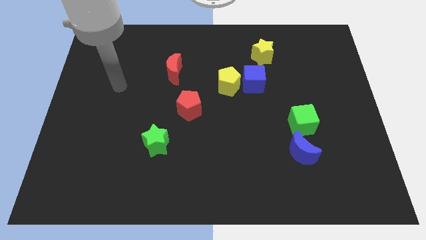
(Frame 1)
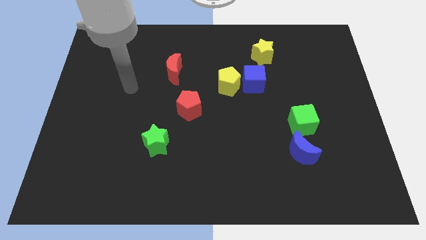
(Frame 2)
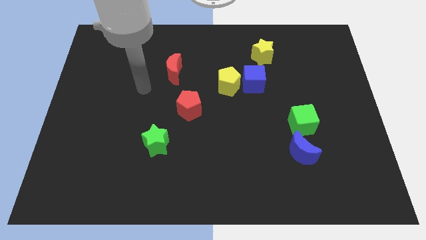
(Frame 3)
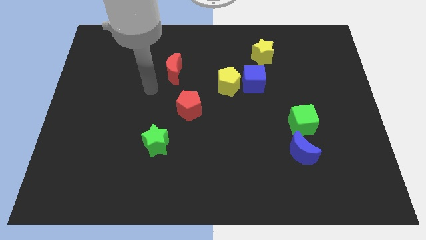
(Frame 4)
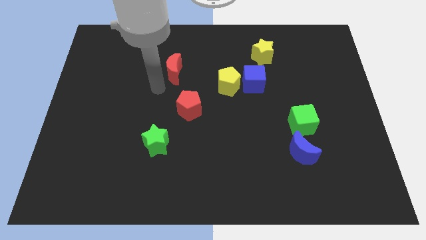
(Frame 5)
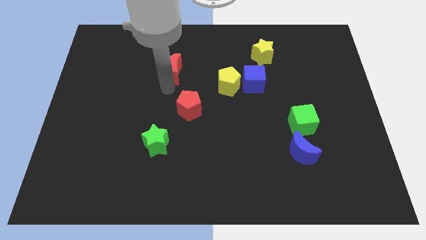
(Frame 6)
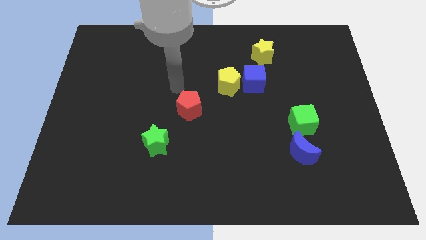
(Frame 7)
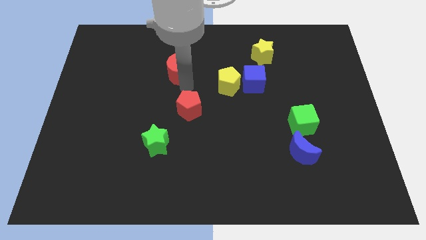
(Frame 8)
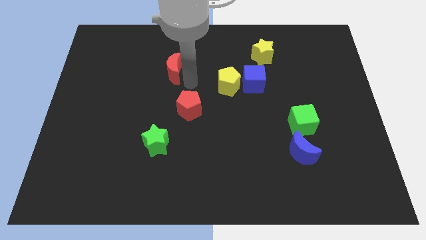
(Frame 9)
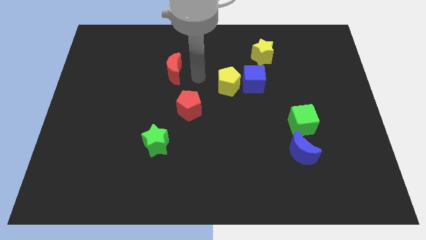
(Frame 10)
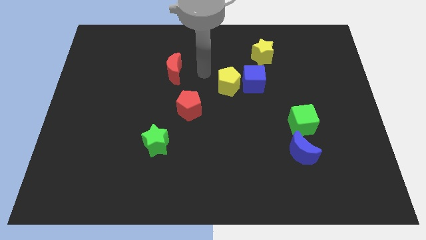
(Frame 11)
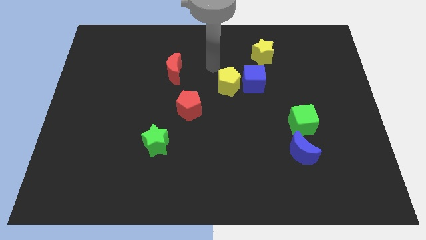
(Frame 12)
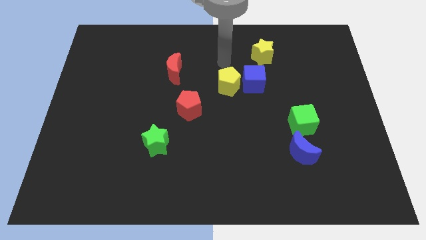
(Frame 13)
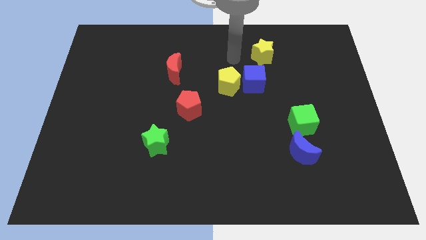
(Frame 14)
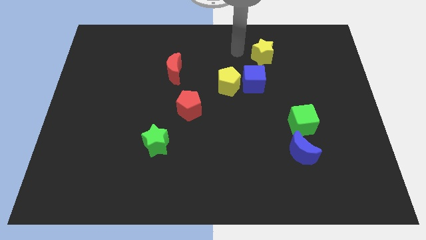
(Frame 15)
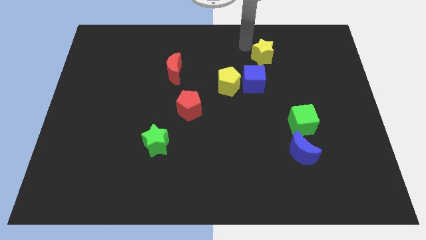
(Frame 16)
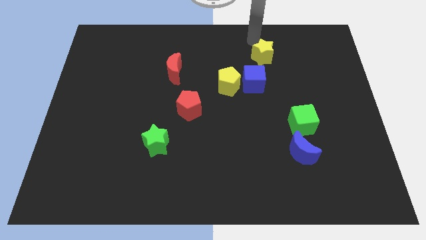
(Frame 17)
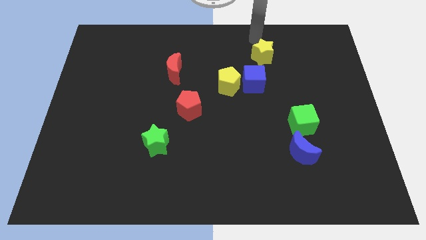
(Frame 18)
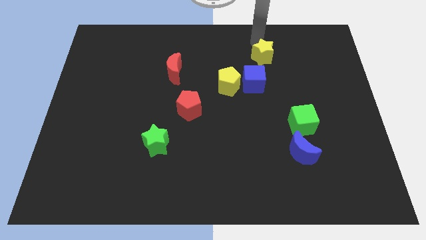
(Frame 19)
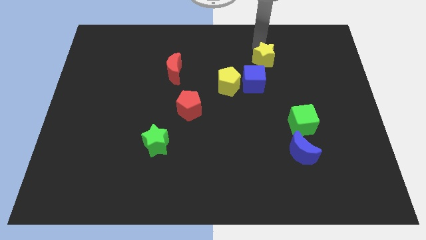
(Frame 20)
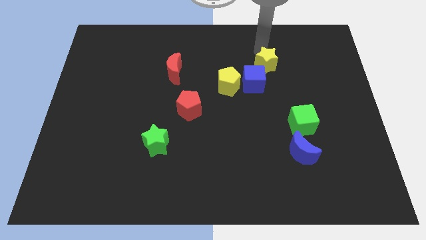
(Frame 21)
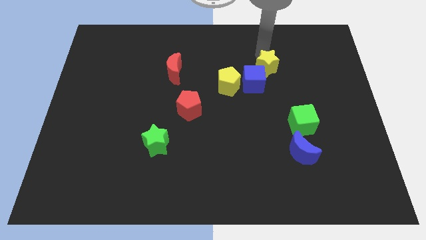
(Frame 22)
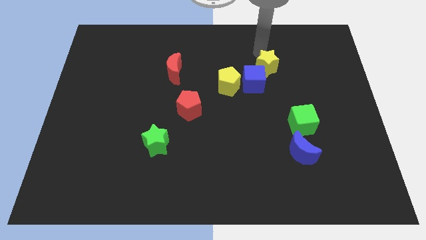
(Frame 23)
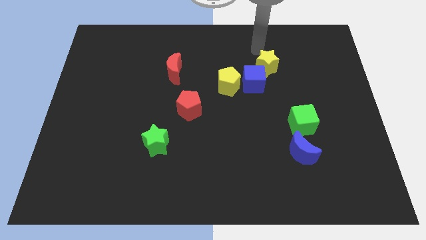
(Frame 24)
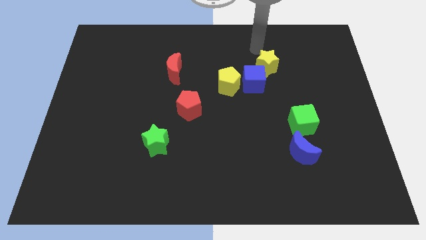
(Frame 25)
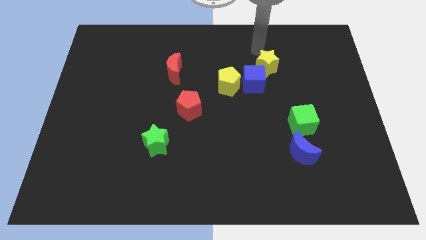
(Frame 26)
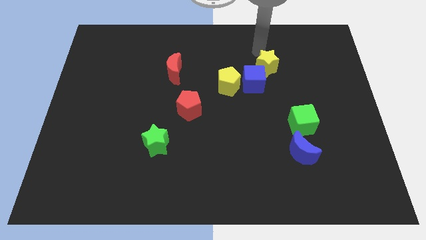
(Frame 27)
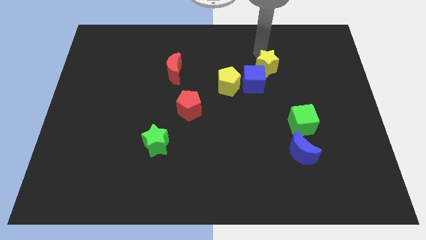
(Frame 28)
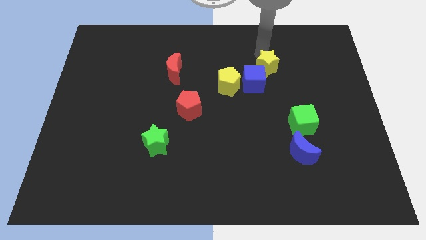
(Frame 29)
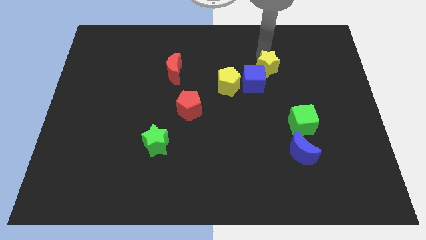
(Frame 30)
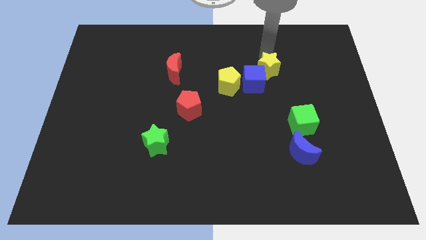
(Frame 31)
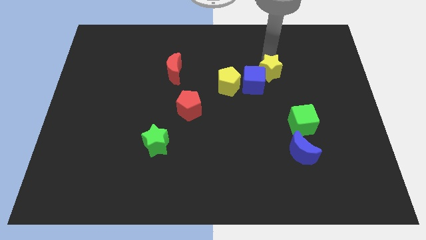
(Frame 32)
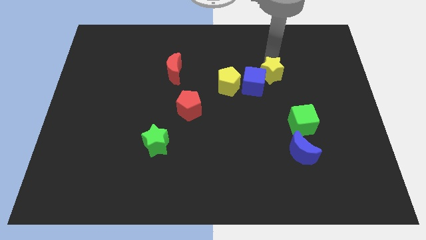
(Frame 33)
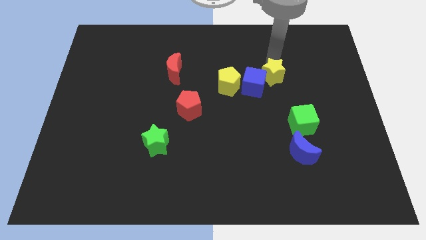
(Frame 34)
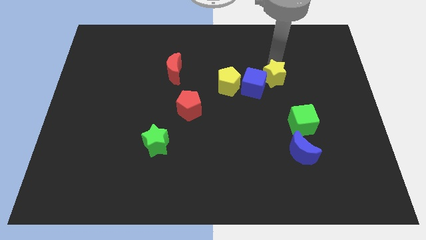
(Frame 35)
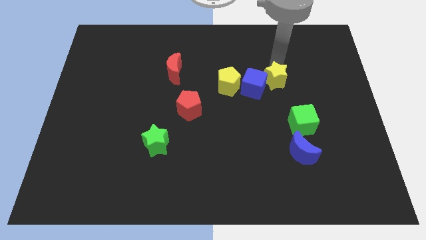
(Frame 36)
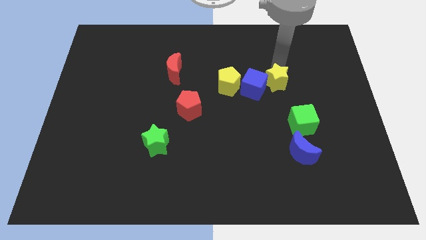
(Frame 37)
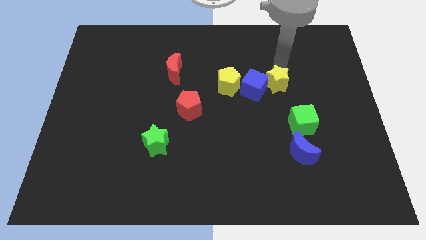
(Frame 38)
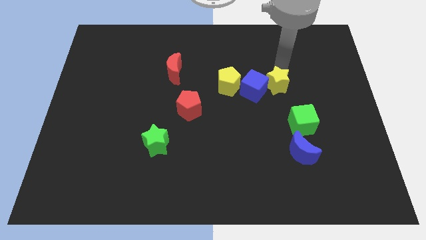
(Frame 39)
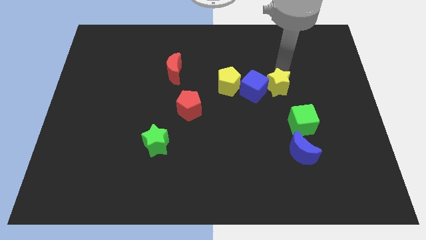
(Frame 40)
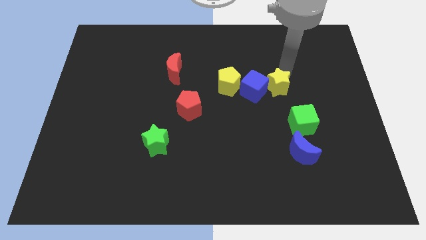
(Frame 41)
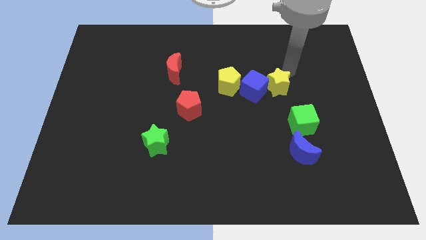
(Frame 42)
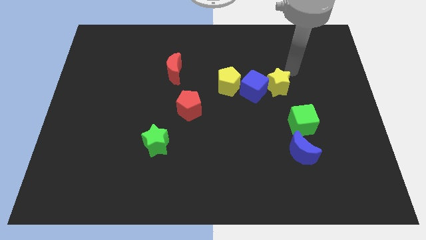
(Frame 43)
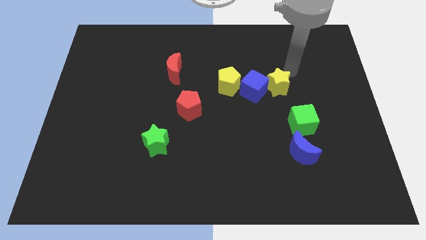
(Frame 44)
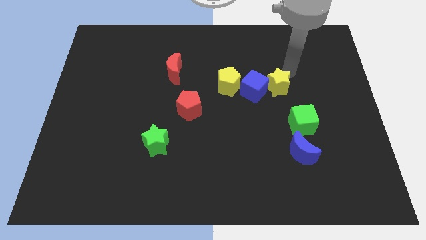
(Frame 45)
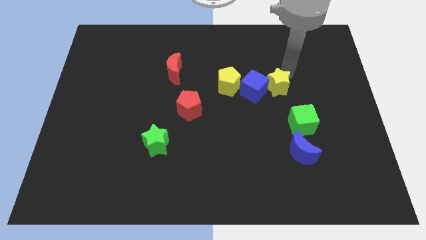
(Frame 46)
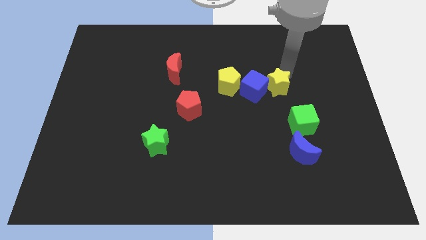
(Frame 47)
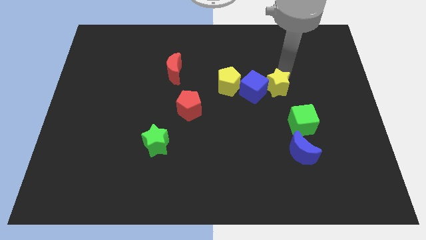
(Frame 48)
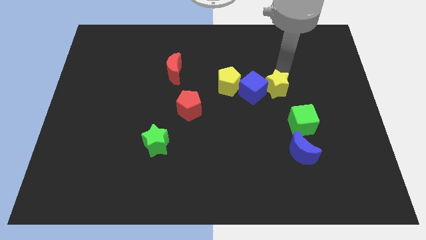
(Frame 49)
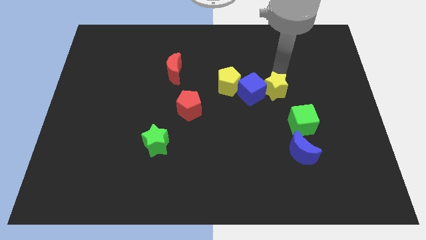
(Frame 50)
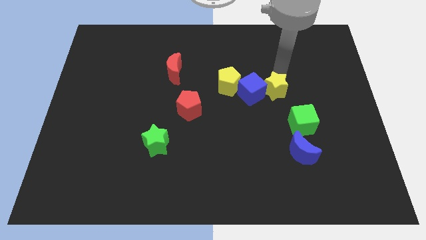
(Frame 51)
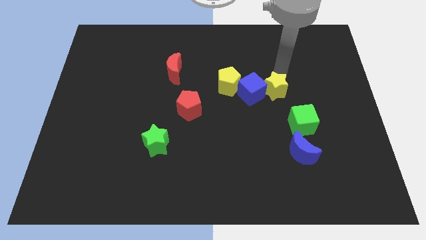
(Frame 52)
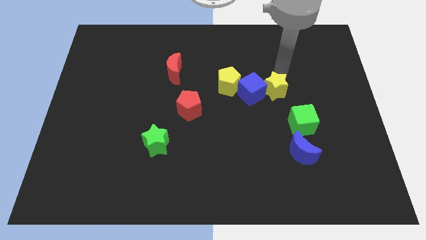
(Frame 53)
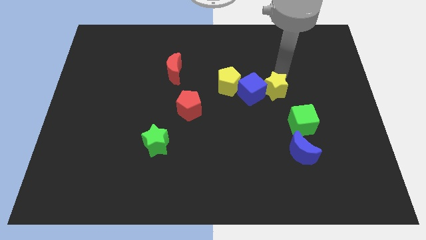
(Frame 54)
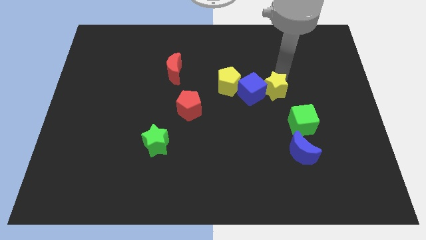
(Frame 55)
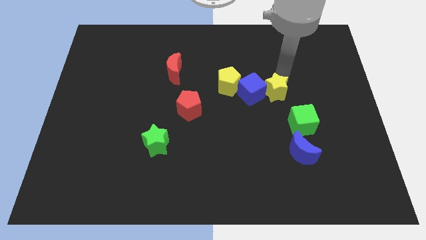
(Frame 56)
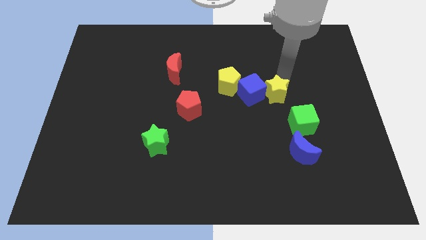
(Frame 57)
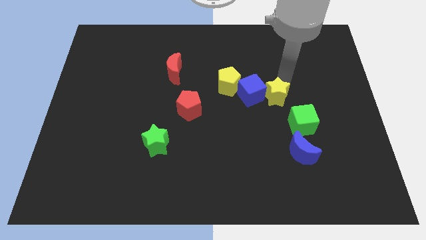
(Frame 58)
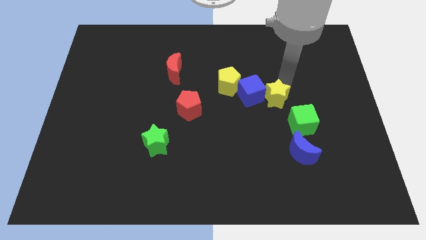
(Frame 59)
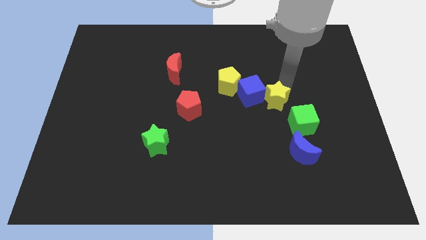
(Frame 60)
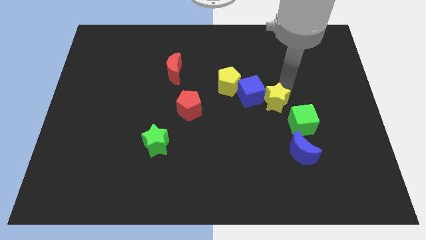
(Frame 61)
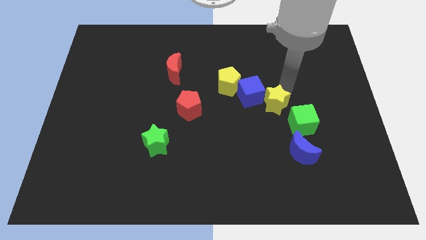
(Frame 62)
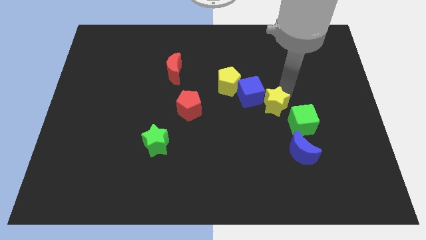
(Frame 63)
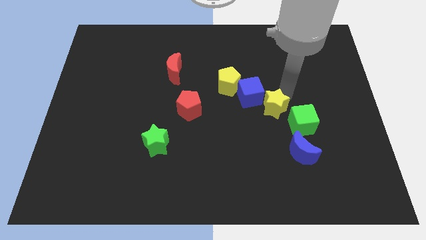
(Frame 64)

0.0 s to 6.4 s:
move the yellow star just left of the green cube

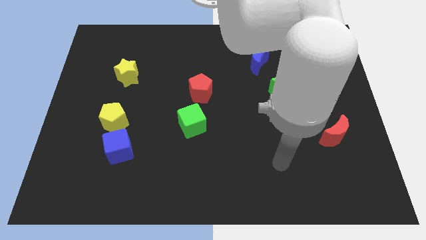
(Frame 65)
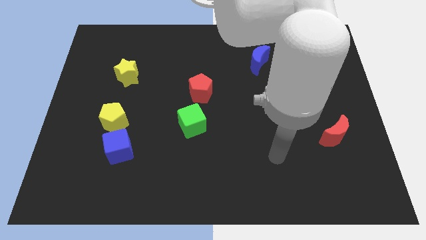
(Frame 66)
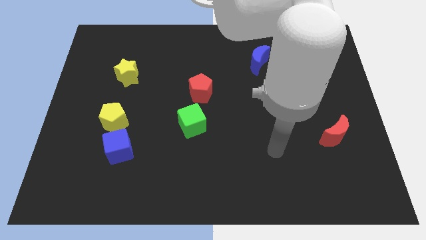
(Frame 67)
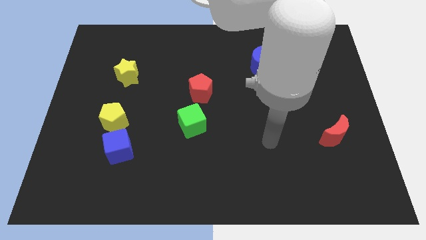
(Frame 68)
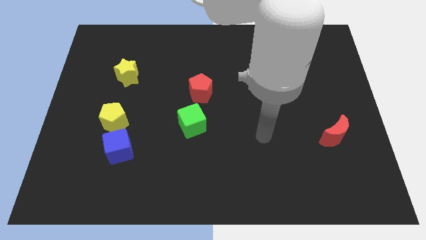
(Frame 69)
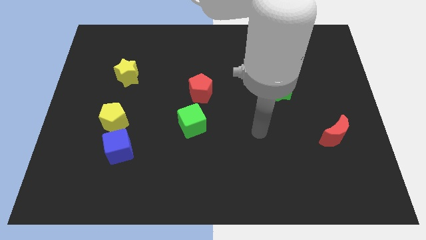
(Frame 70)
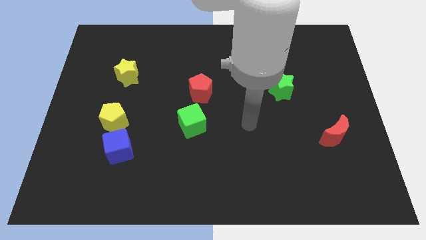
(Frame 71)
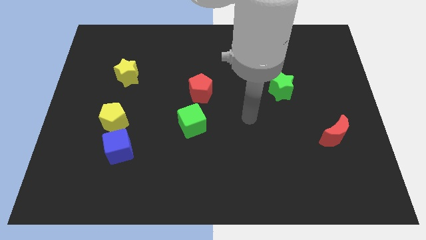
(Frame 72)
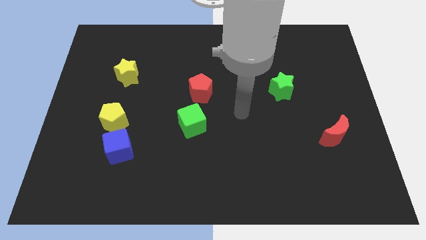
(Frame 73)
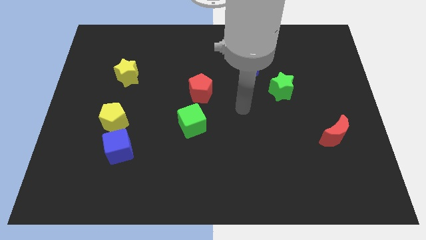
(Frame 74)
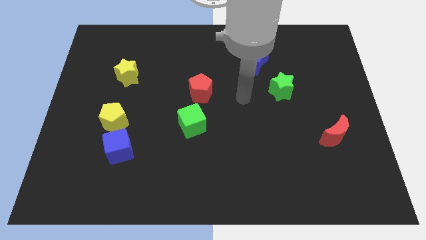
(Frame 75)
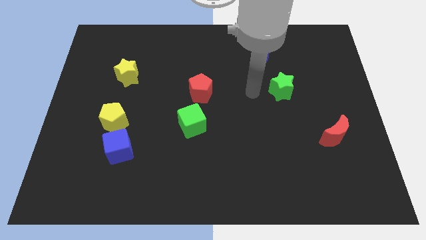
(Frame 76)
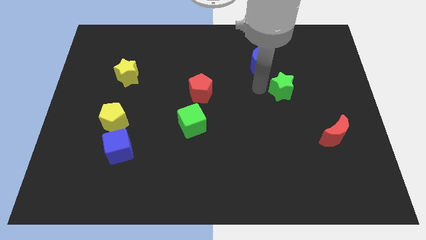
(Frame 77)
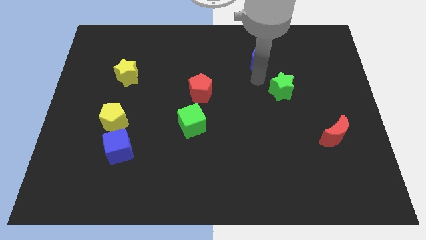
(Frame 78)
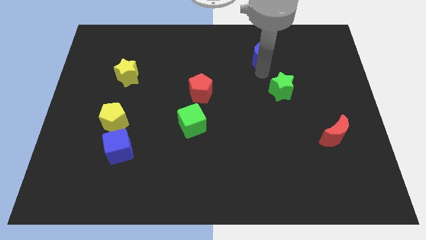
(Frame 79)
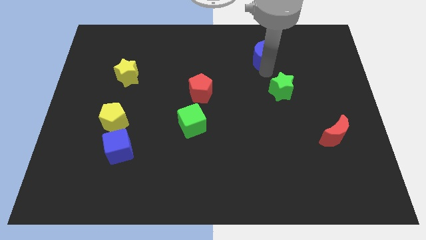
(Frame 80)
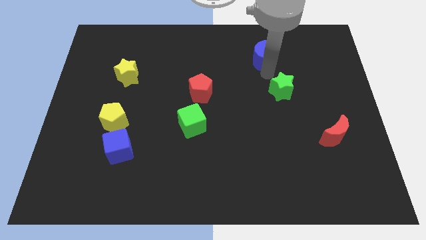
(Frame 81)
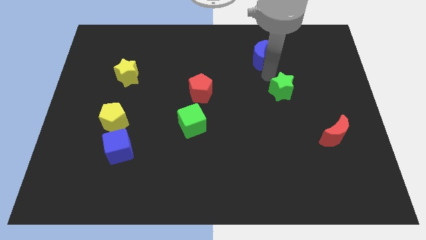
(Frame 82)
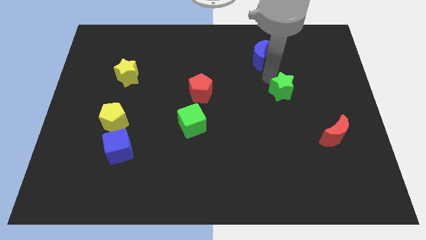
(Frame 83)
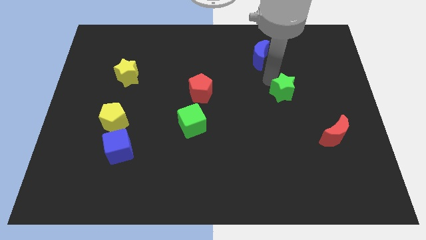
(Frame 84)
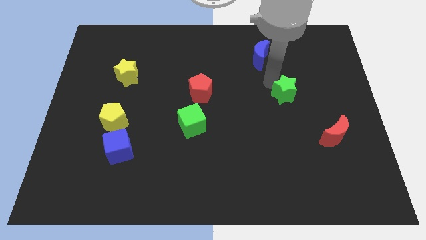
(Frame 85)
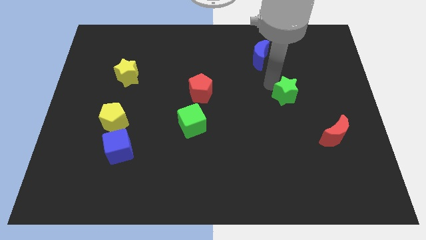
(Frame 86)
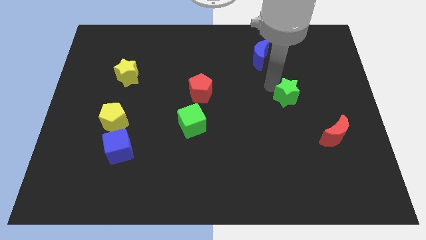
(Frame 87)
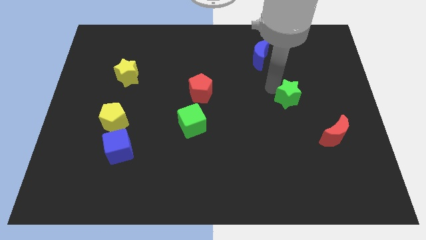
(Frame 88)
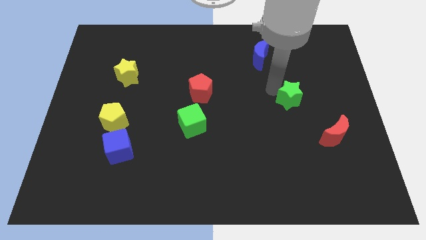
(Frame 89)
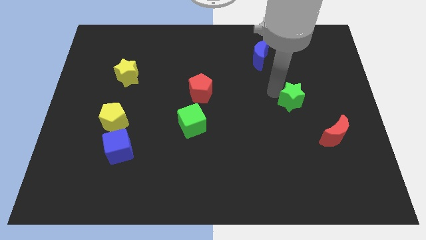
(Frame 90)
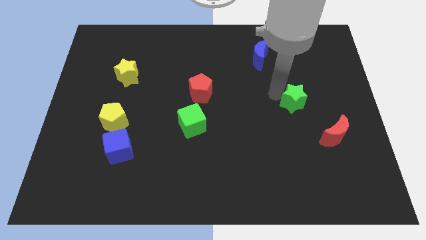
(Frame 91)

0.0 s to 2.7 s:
slide the green star diagonally up and to the left of the red moon
